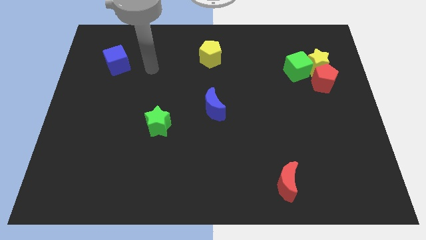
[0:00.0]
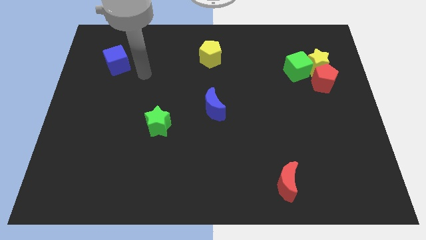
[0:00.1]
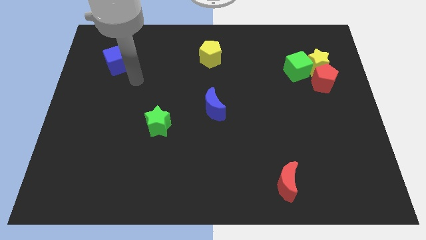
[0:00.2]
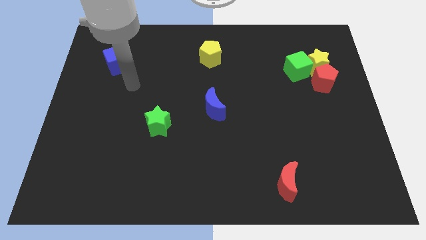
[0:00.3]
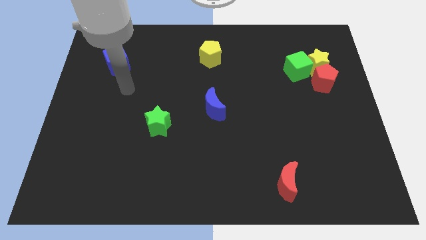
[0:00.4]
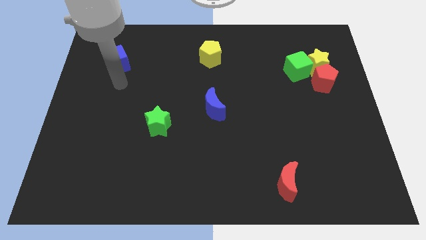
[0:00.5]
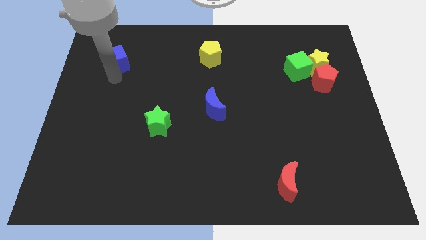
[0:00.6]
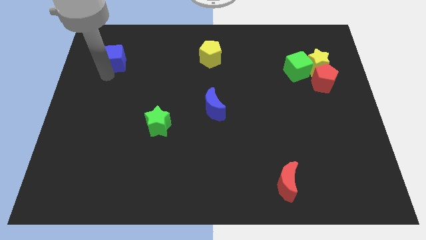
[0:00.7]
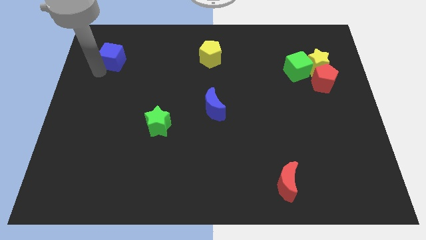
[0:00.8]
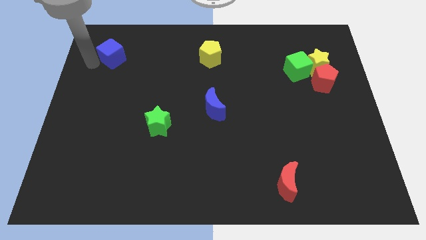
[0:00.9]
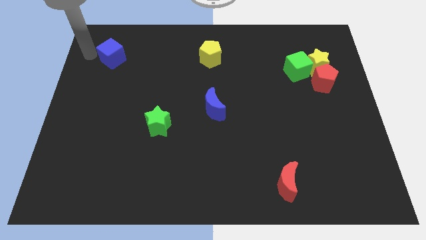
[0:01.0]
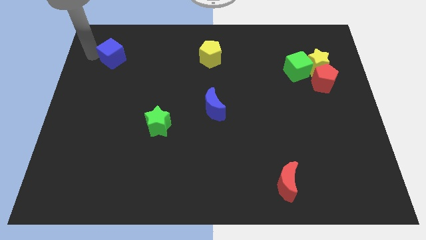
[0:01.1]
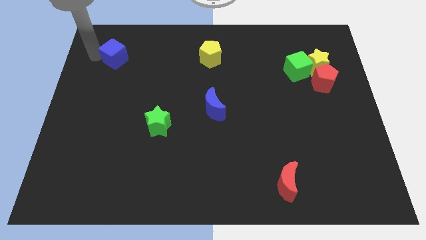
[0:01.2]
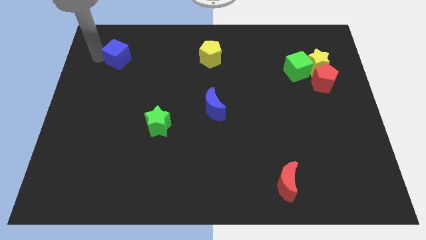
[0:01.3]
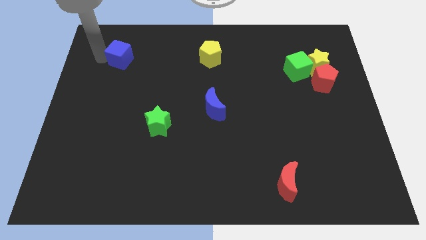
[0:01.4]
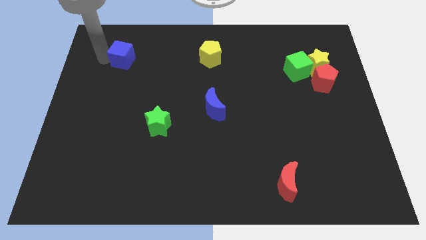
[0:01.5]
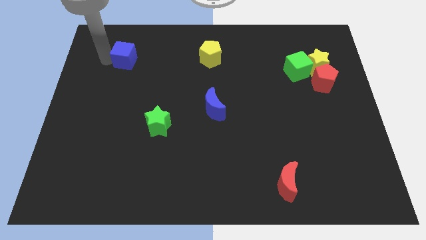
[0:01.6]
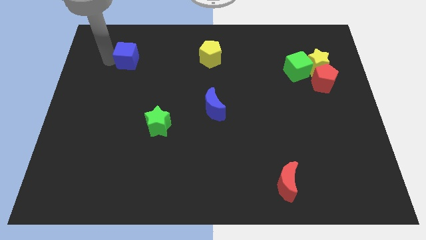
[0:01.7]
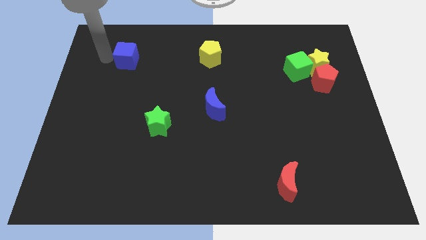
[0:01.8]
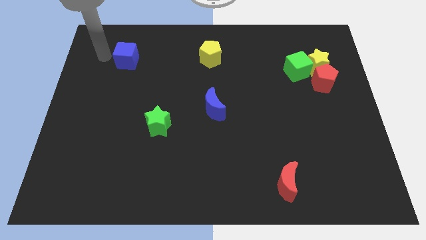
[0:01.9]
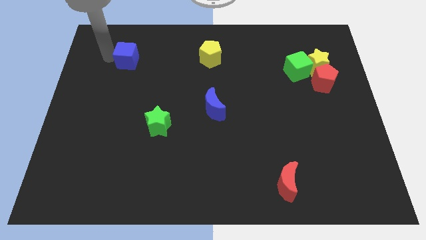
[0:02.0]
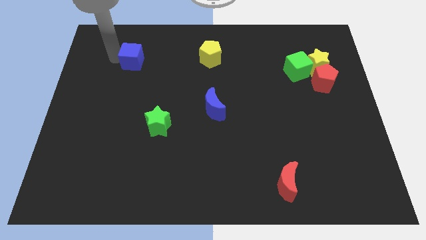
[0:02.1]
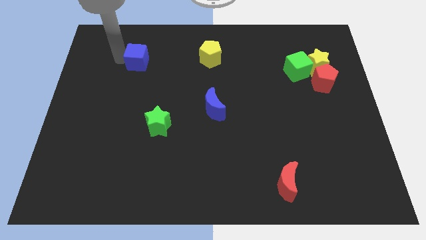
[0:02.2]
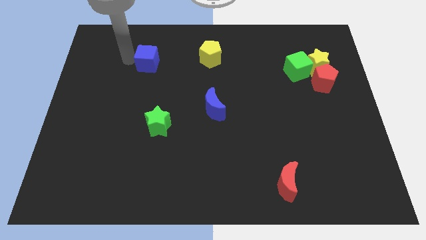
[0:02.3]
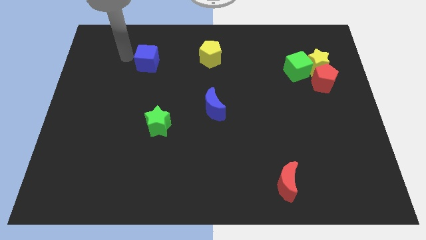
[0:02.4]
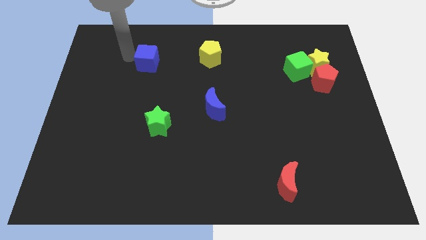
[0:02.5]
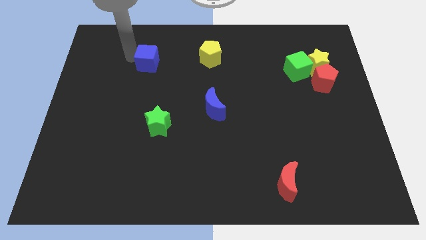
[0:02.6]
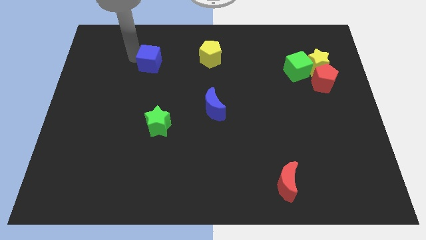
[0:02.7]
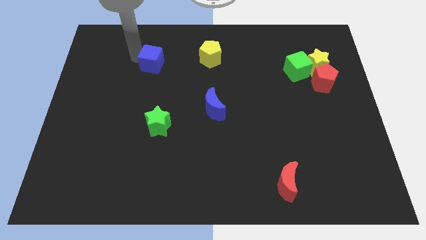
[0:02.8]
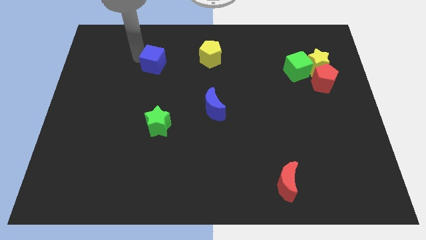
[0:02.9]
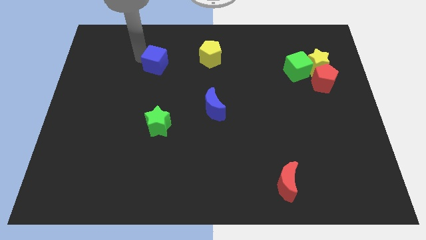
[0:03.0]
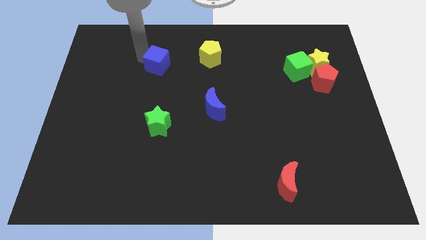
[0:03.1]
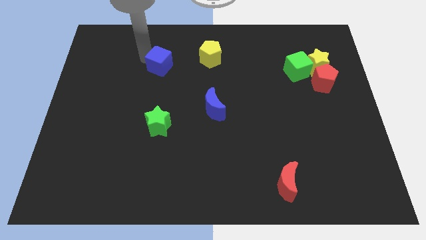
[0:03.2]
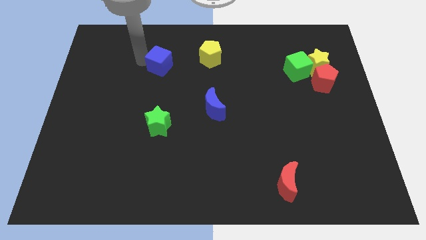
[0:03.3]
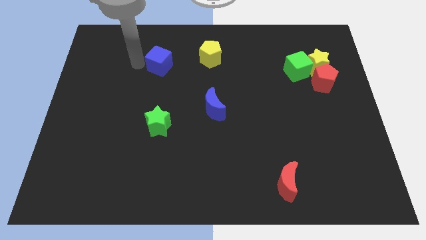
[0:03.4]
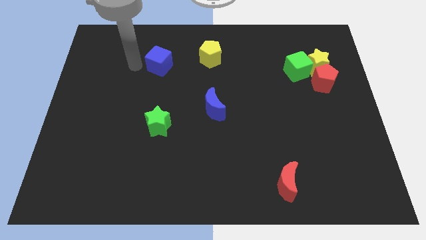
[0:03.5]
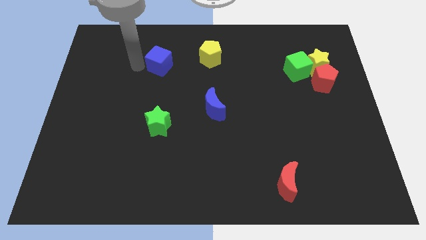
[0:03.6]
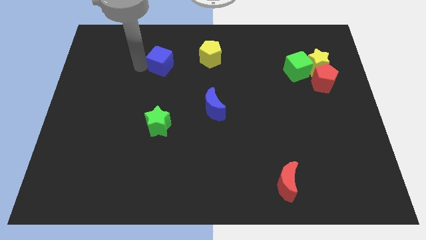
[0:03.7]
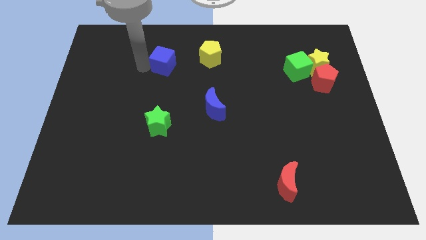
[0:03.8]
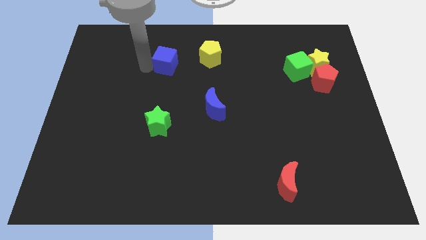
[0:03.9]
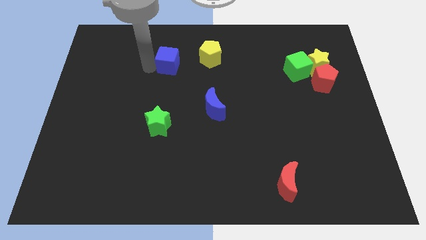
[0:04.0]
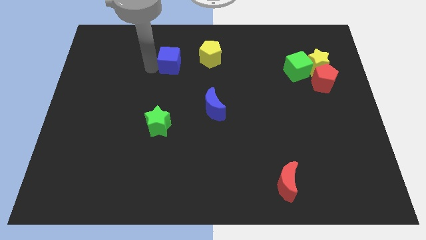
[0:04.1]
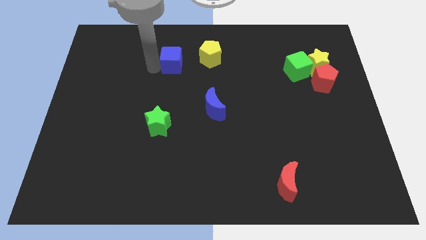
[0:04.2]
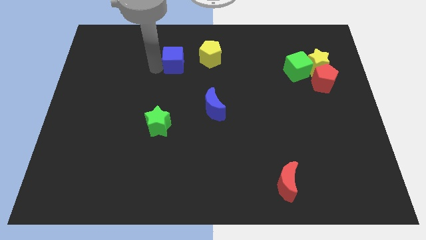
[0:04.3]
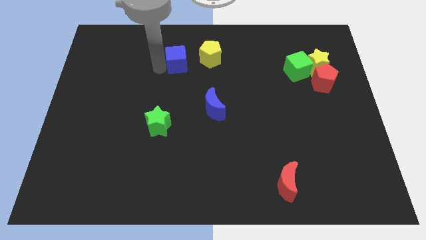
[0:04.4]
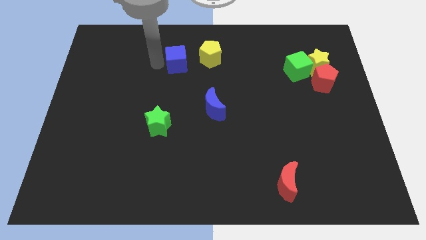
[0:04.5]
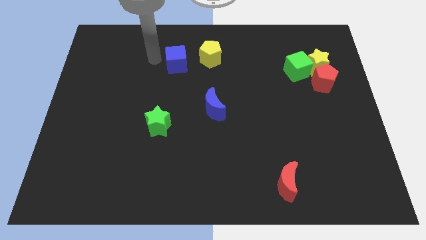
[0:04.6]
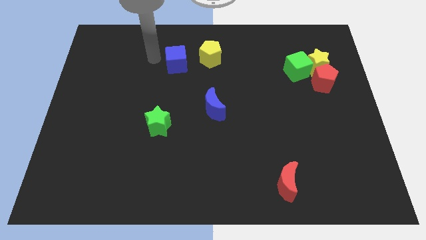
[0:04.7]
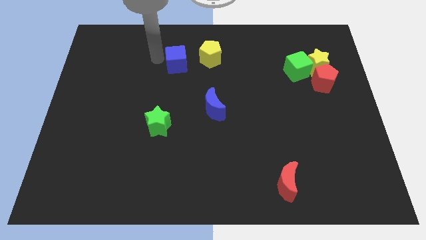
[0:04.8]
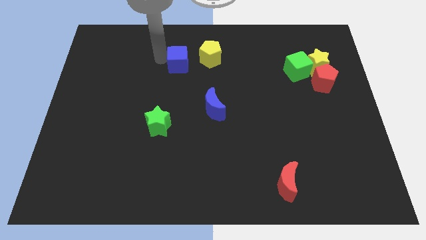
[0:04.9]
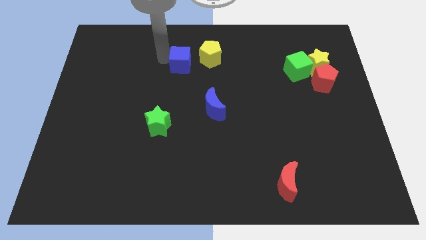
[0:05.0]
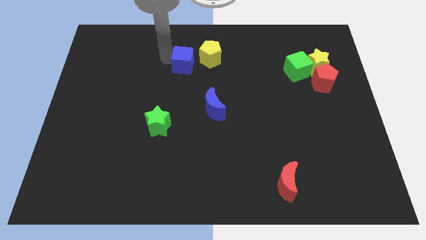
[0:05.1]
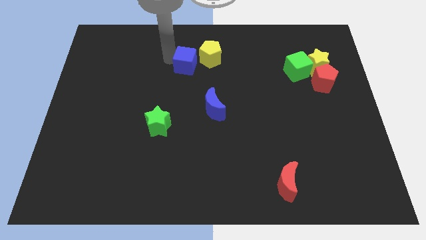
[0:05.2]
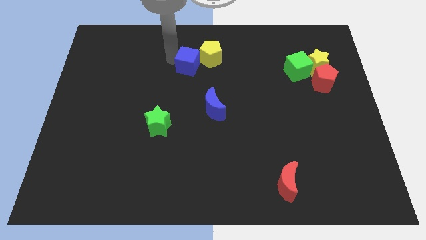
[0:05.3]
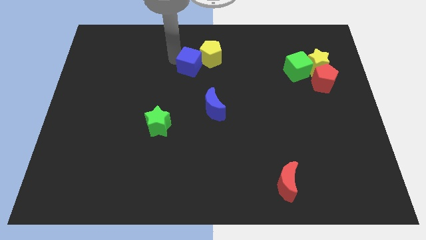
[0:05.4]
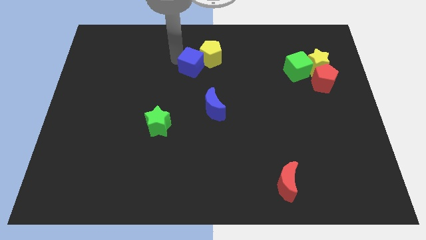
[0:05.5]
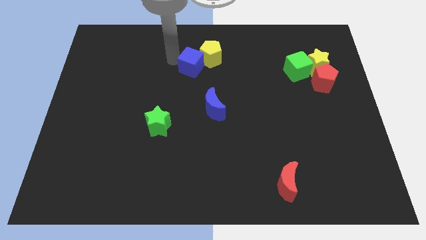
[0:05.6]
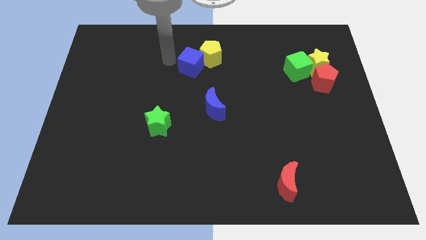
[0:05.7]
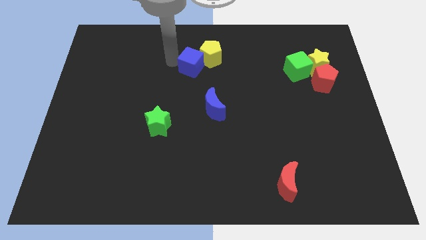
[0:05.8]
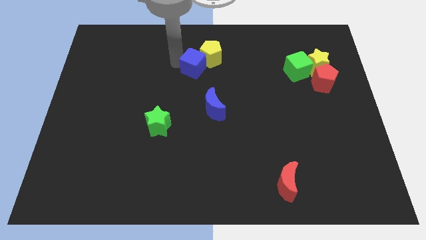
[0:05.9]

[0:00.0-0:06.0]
move the blue cube to the right

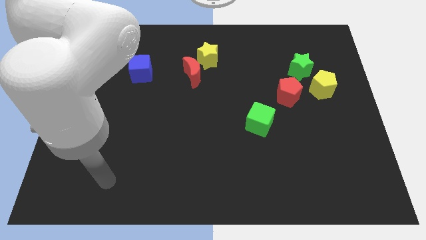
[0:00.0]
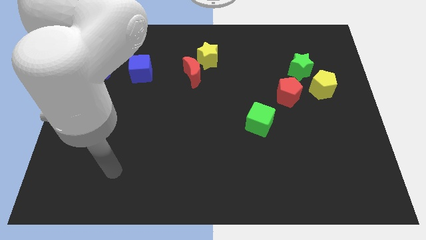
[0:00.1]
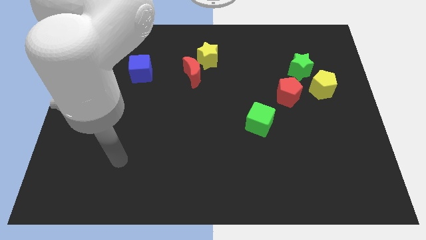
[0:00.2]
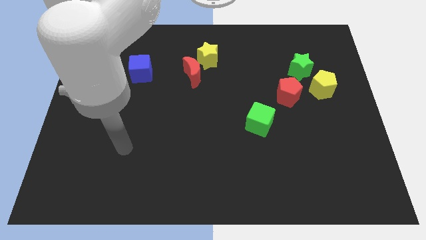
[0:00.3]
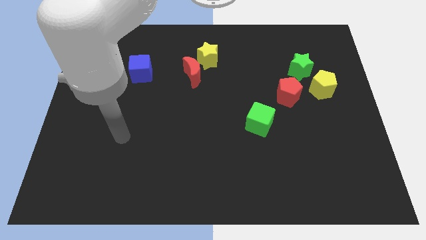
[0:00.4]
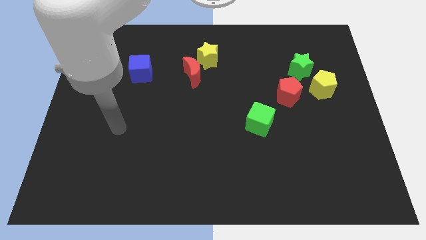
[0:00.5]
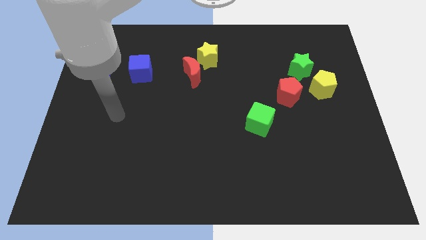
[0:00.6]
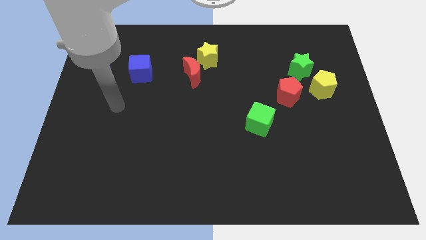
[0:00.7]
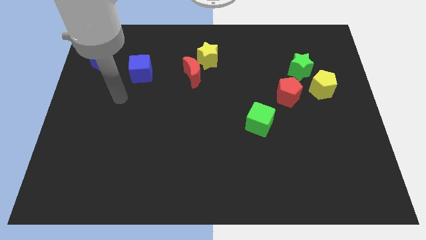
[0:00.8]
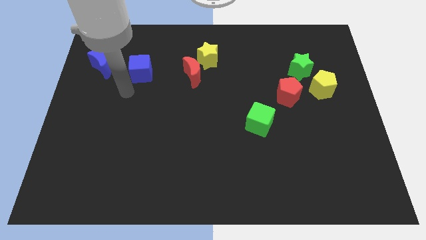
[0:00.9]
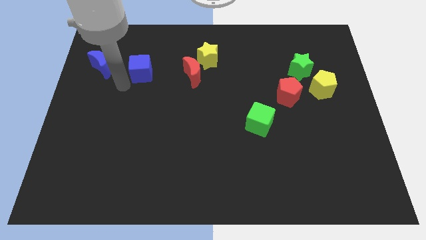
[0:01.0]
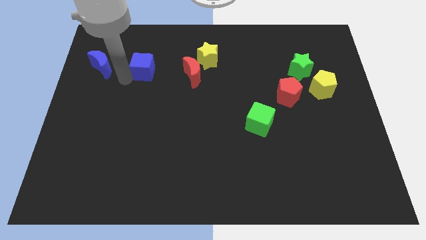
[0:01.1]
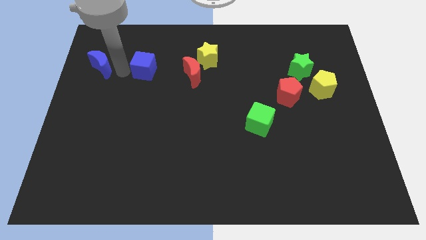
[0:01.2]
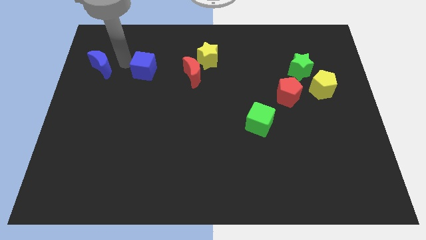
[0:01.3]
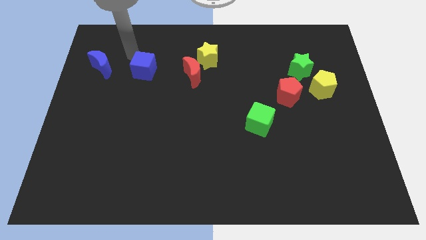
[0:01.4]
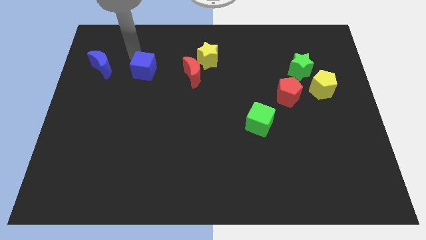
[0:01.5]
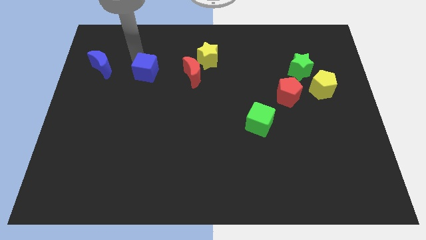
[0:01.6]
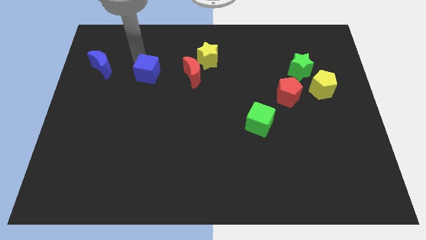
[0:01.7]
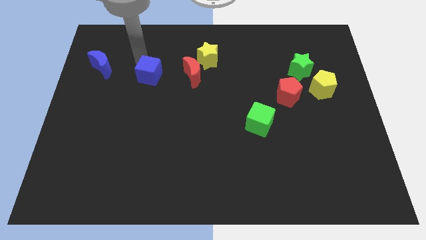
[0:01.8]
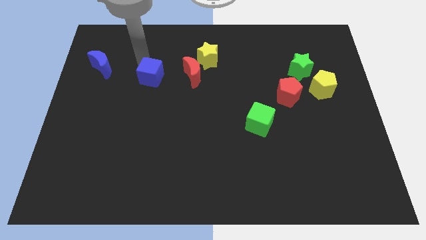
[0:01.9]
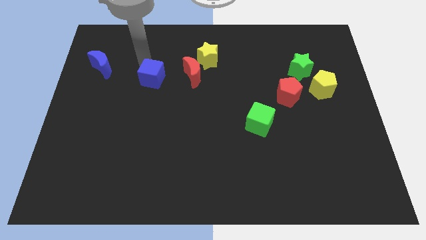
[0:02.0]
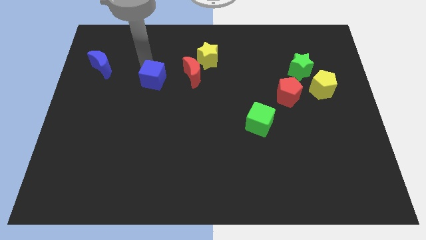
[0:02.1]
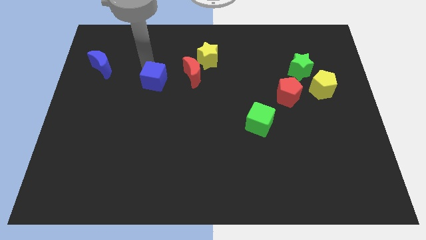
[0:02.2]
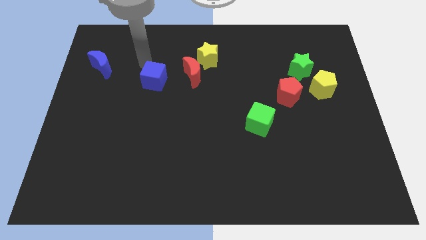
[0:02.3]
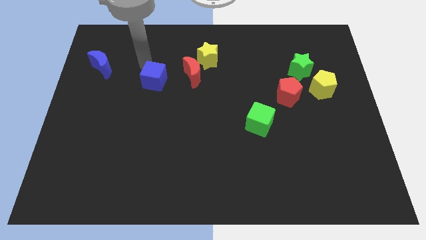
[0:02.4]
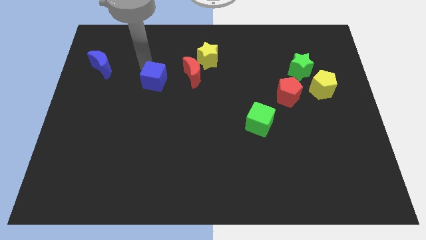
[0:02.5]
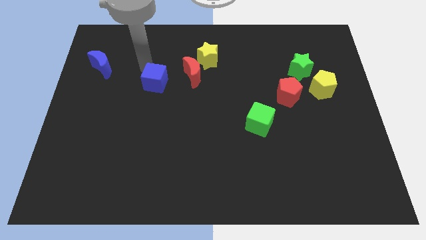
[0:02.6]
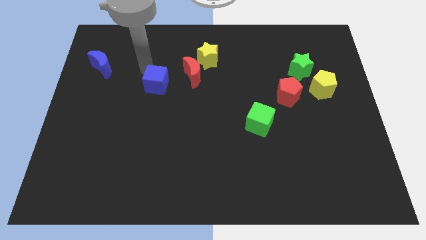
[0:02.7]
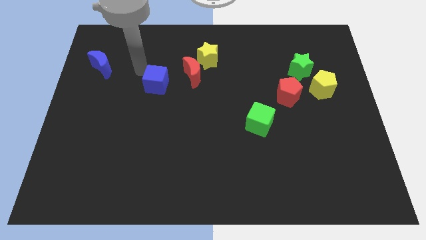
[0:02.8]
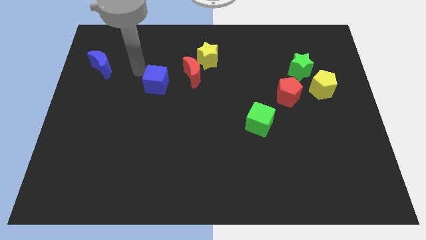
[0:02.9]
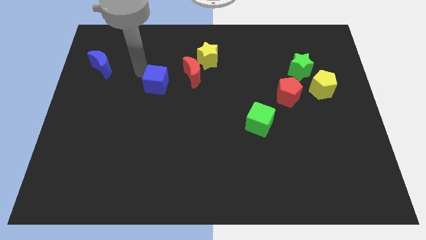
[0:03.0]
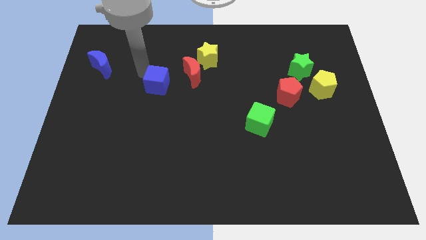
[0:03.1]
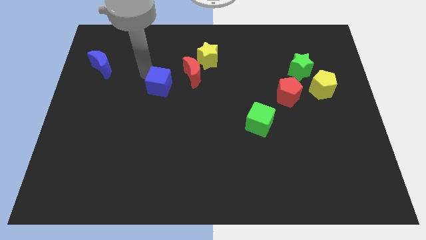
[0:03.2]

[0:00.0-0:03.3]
move the blue cube a bit downwards and then right
